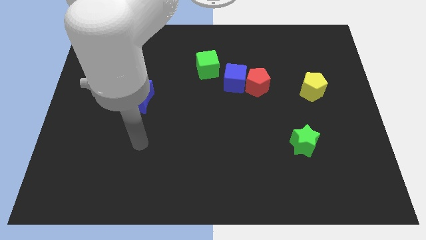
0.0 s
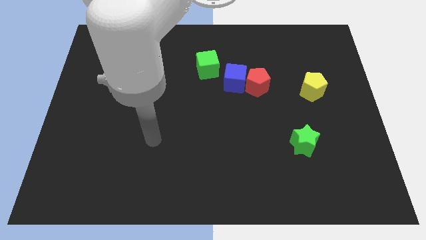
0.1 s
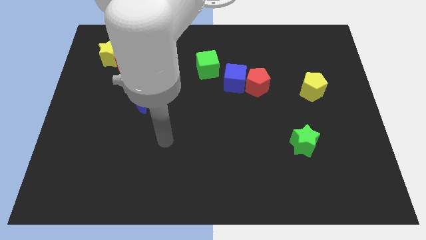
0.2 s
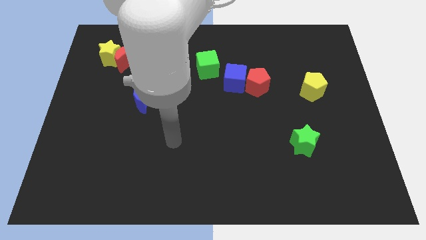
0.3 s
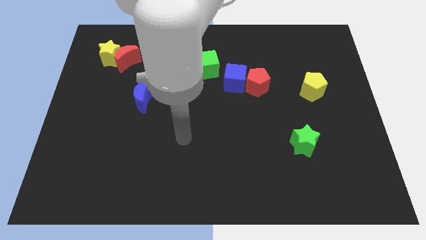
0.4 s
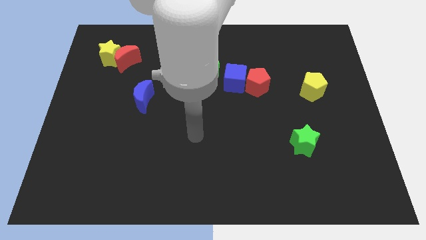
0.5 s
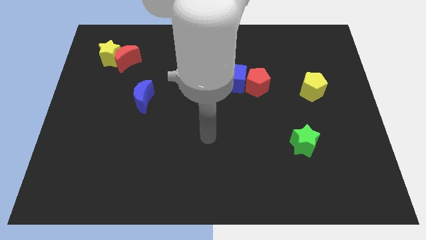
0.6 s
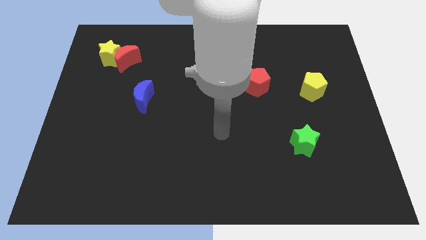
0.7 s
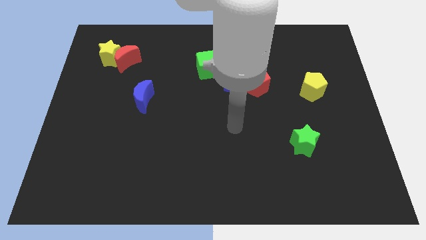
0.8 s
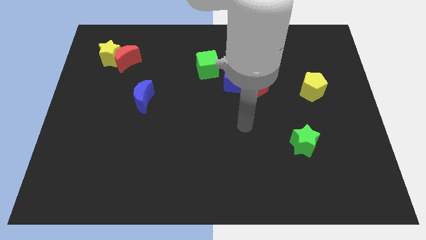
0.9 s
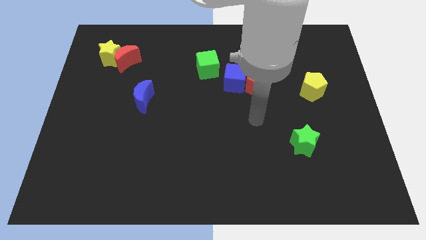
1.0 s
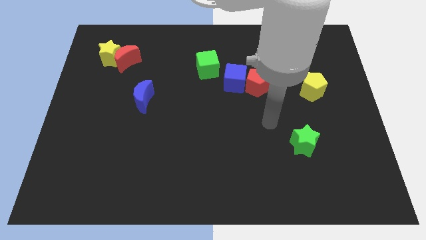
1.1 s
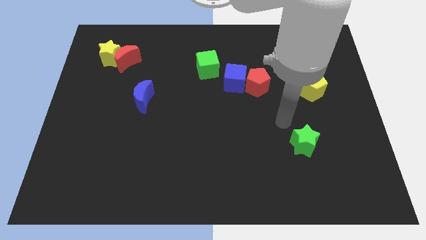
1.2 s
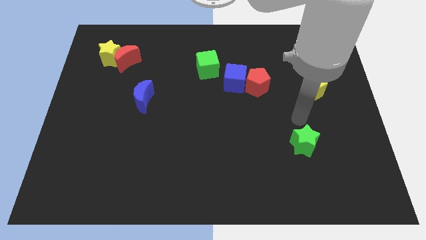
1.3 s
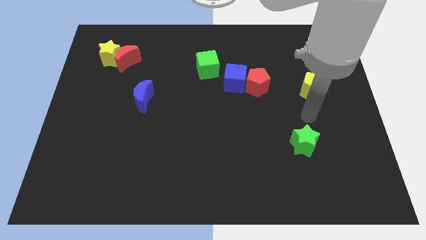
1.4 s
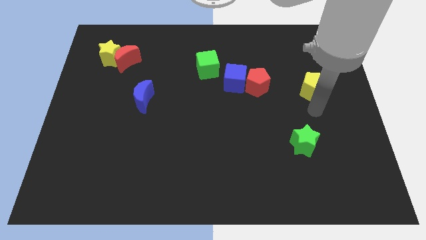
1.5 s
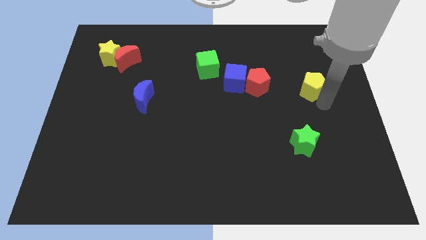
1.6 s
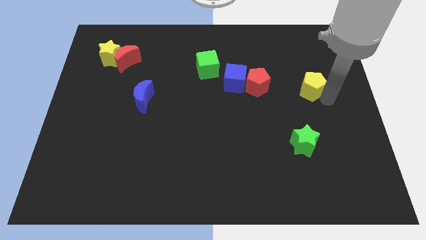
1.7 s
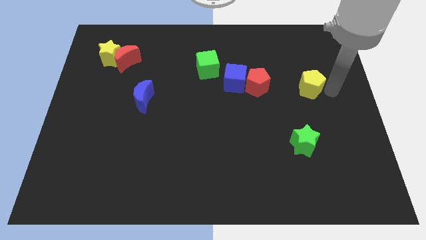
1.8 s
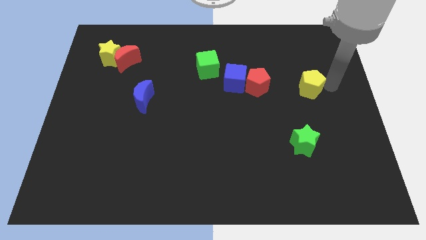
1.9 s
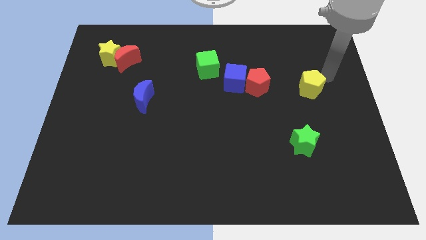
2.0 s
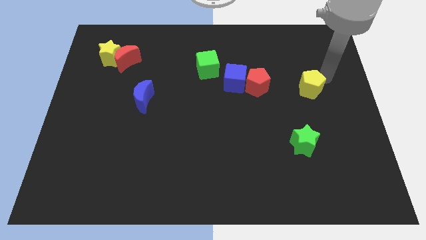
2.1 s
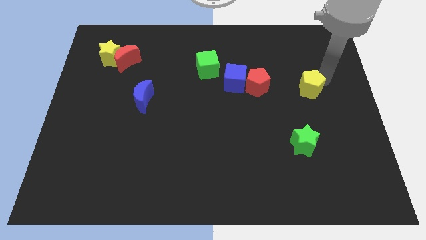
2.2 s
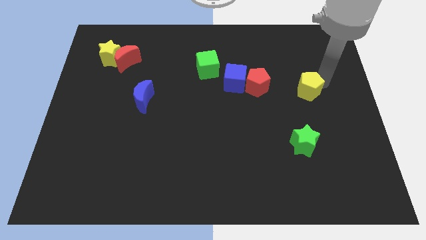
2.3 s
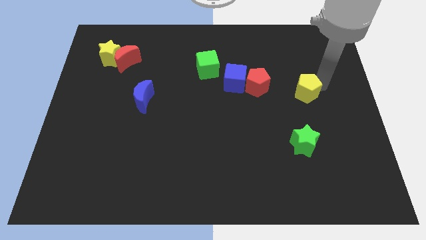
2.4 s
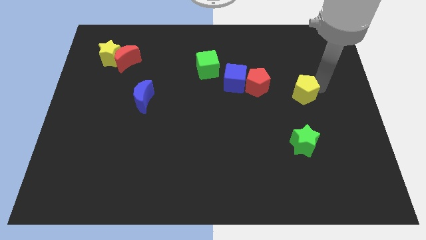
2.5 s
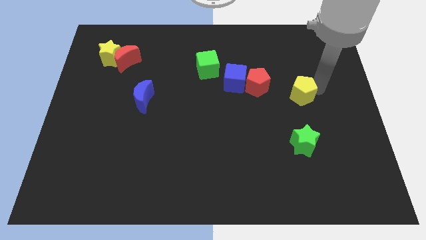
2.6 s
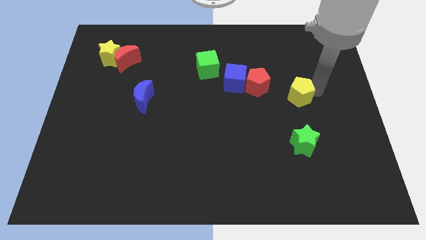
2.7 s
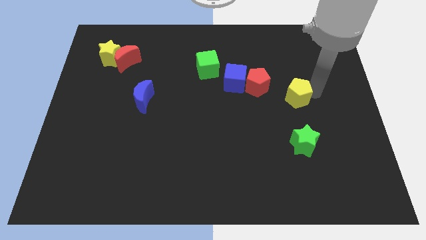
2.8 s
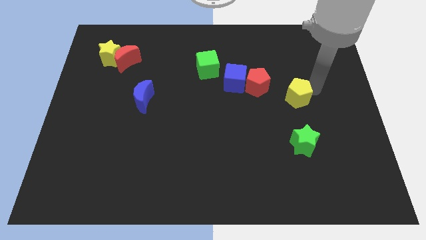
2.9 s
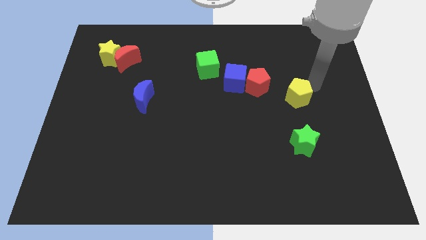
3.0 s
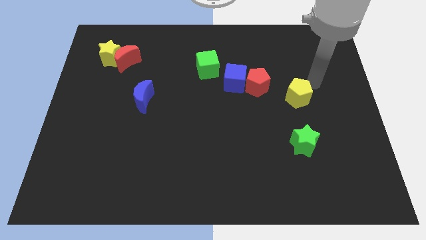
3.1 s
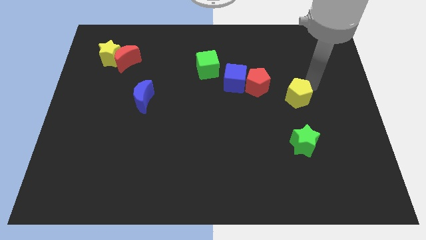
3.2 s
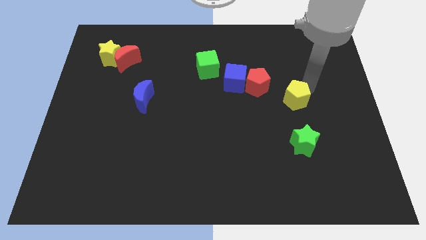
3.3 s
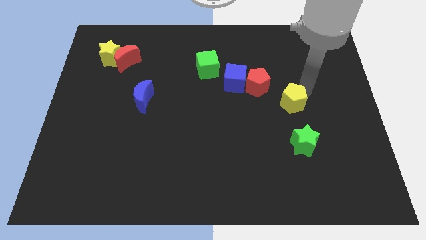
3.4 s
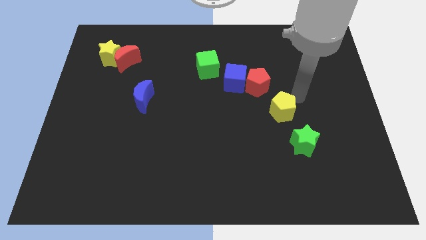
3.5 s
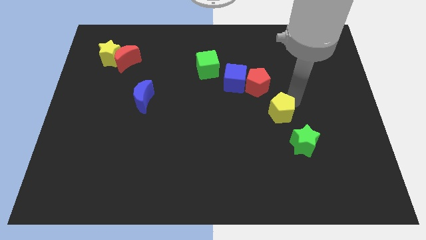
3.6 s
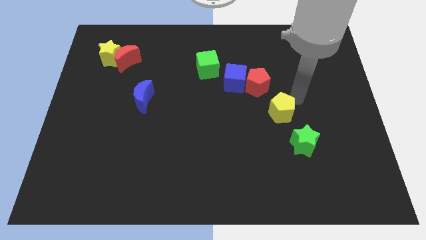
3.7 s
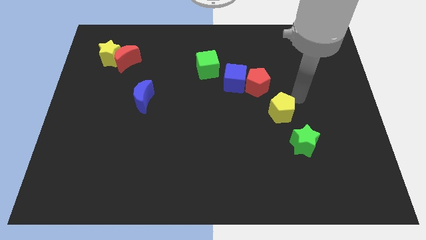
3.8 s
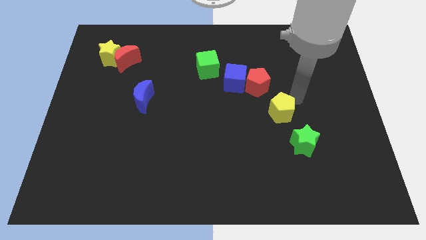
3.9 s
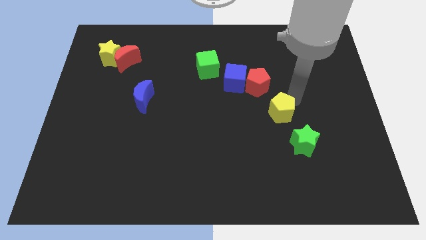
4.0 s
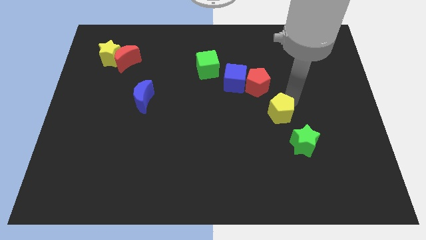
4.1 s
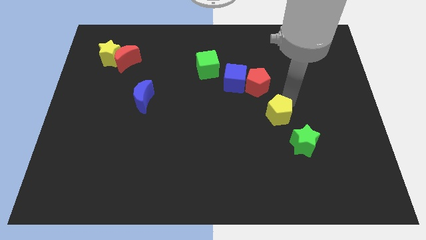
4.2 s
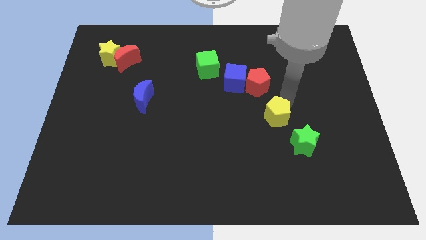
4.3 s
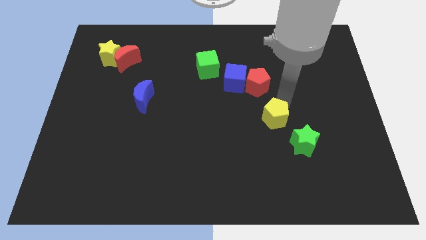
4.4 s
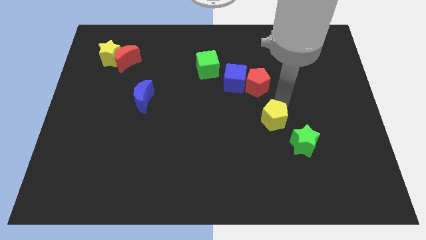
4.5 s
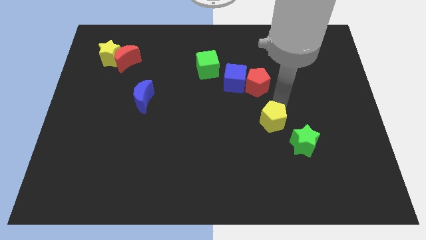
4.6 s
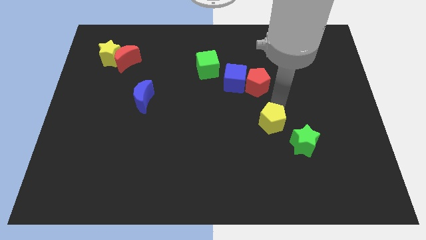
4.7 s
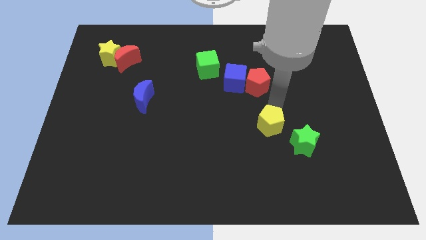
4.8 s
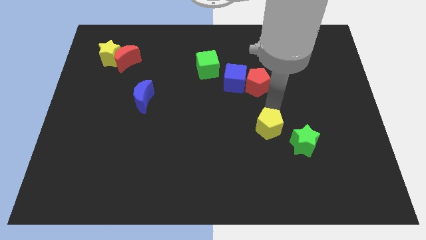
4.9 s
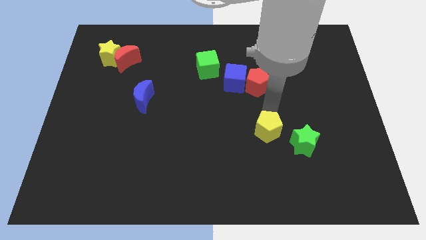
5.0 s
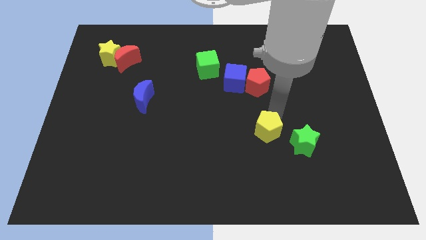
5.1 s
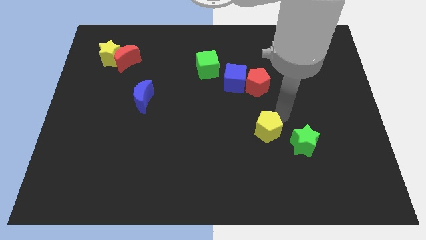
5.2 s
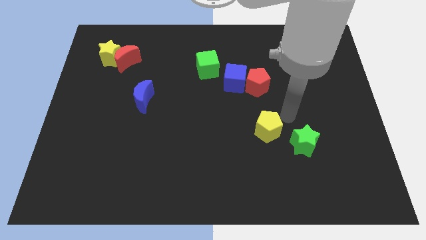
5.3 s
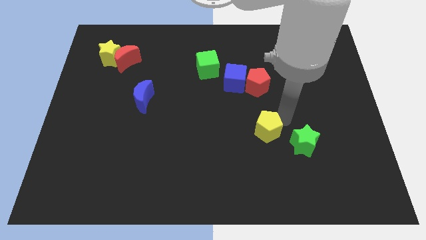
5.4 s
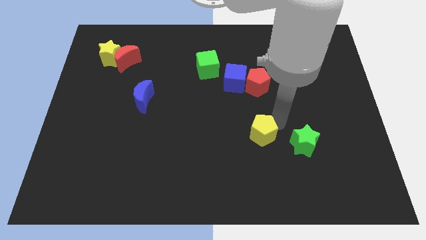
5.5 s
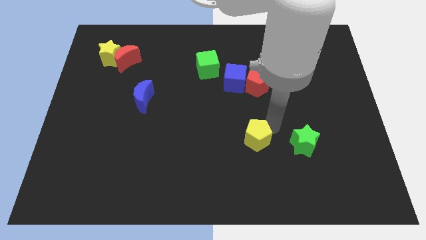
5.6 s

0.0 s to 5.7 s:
push the yellow pentagon downwards and then to the left

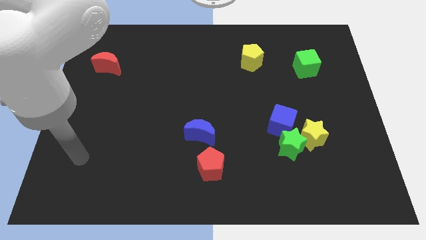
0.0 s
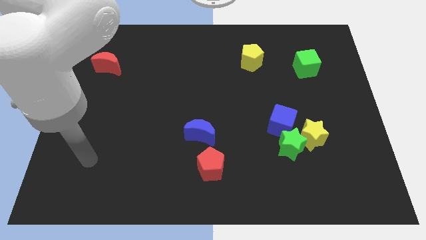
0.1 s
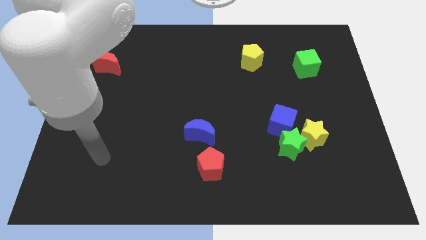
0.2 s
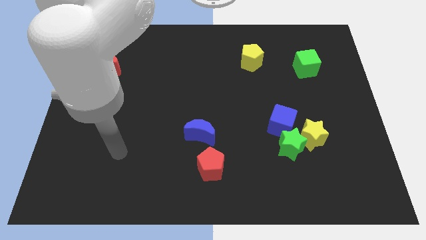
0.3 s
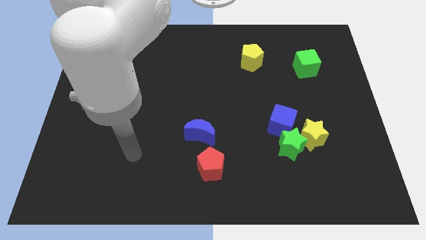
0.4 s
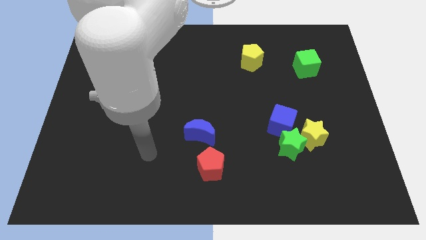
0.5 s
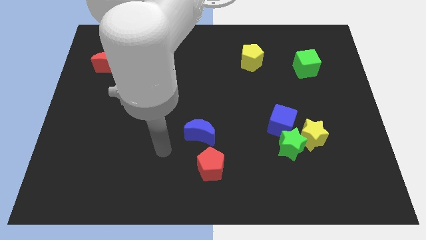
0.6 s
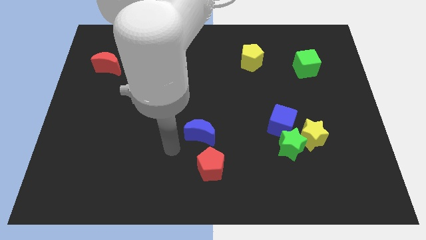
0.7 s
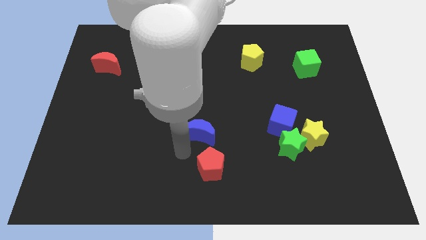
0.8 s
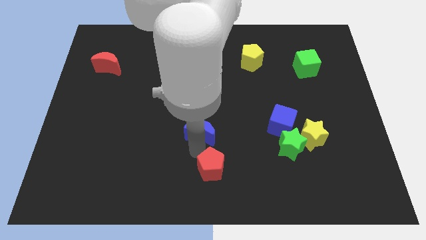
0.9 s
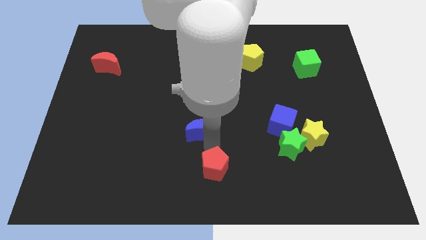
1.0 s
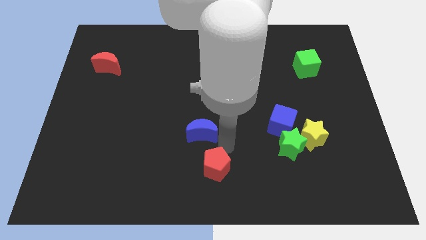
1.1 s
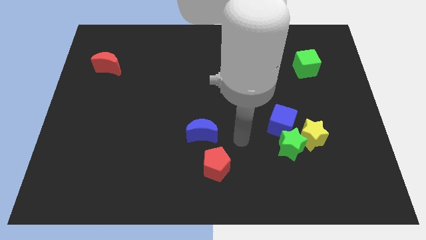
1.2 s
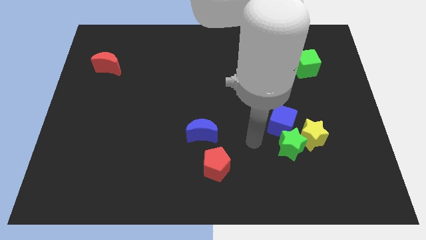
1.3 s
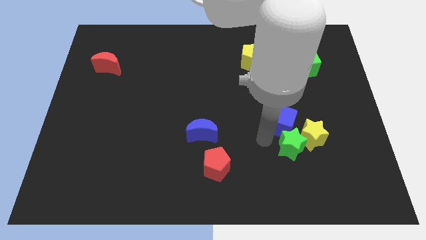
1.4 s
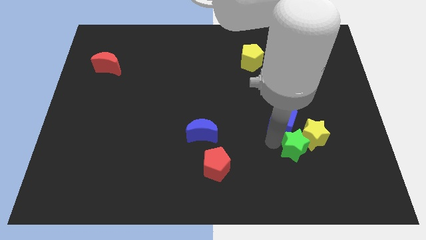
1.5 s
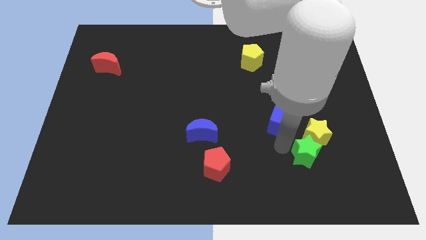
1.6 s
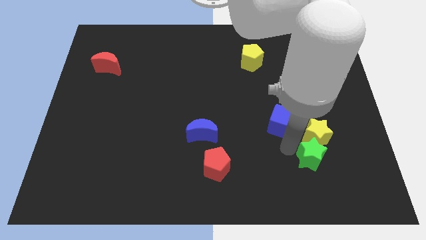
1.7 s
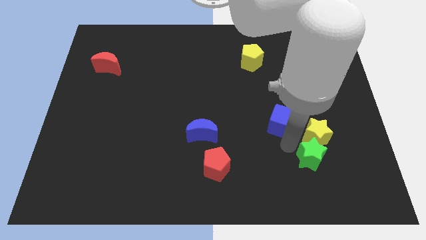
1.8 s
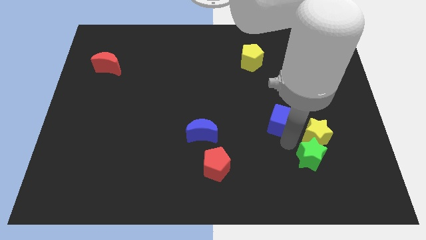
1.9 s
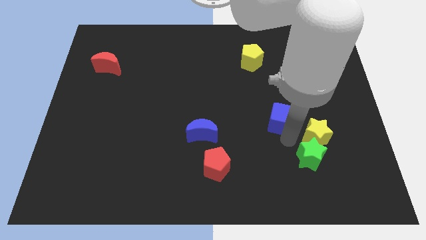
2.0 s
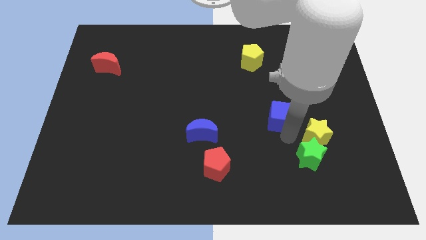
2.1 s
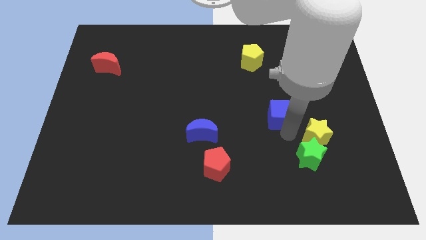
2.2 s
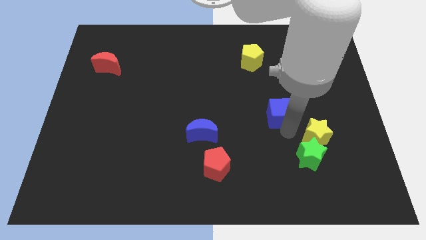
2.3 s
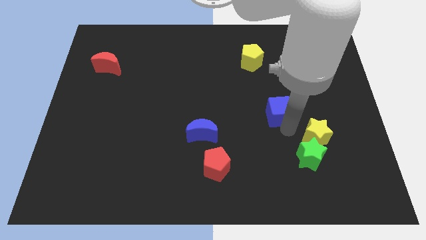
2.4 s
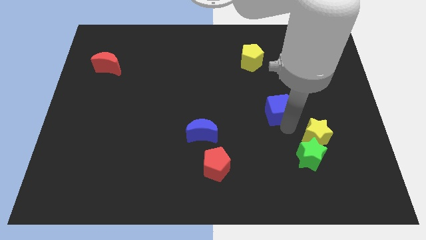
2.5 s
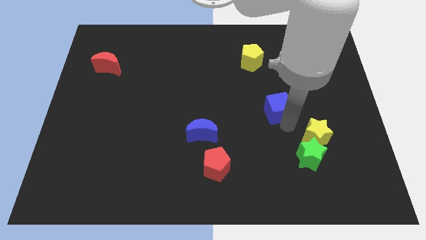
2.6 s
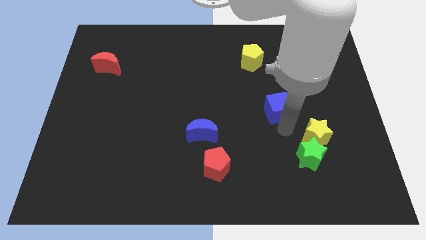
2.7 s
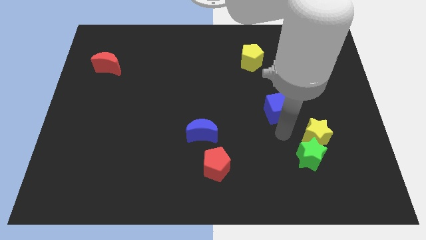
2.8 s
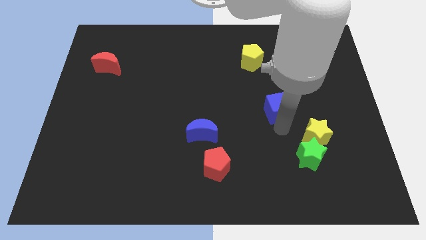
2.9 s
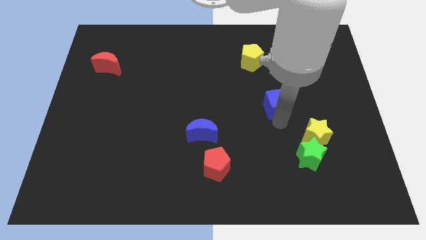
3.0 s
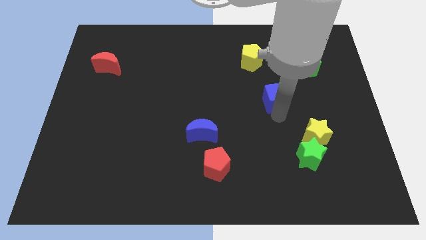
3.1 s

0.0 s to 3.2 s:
push the blue cube up a bit
